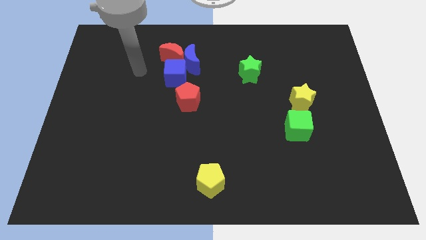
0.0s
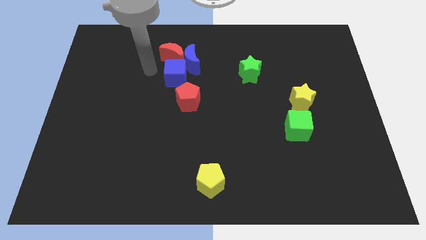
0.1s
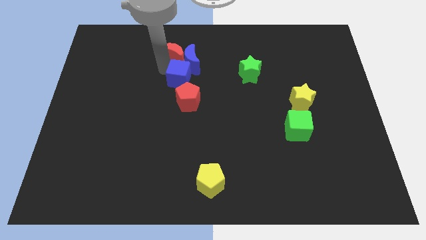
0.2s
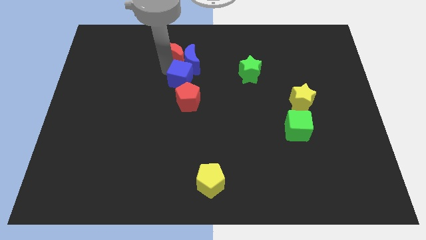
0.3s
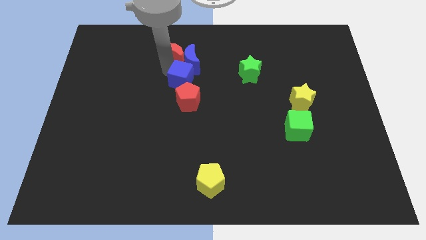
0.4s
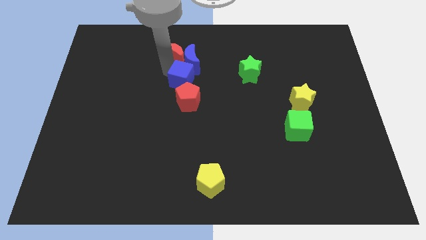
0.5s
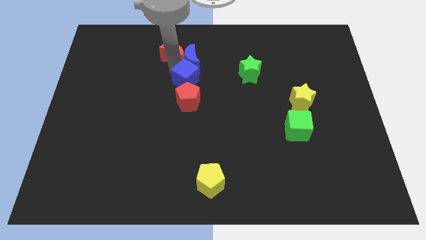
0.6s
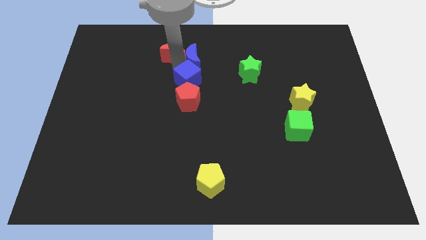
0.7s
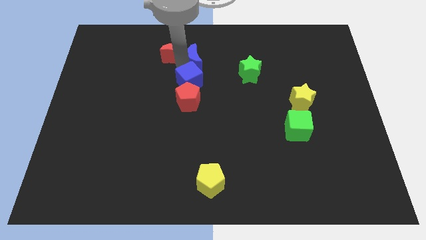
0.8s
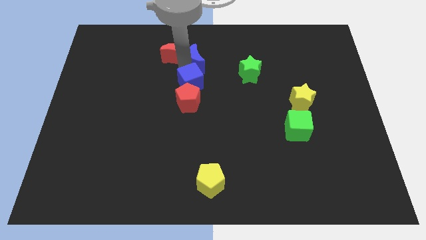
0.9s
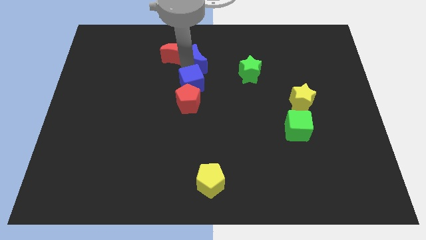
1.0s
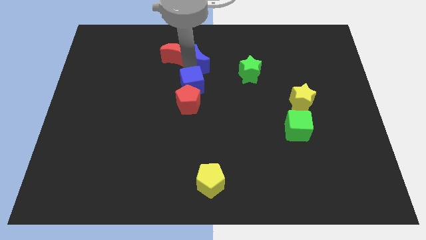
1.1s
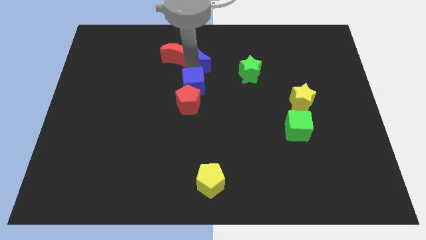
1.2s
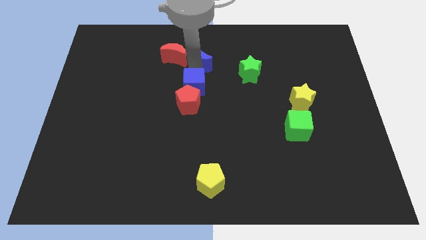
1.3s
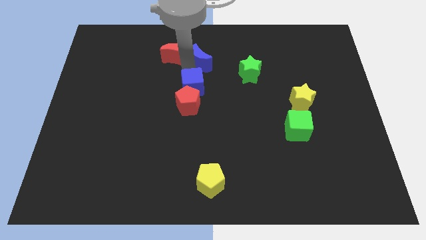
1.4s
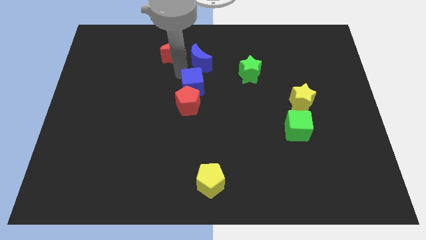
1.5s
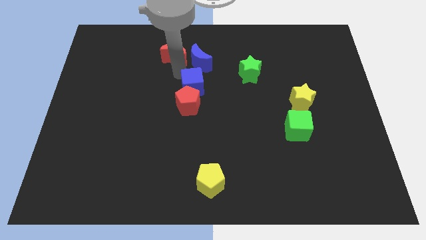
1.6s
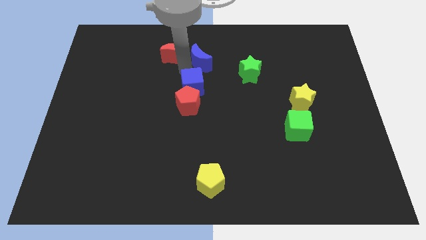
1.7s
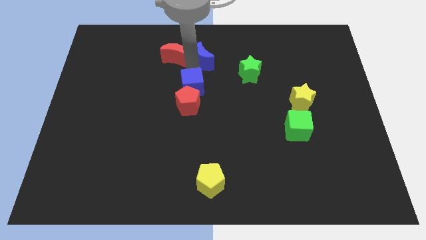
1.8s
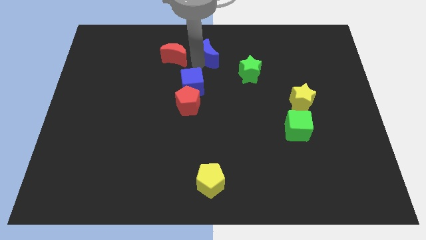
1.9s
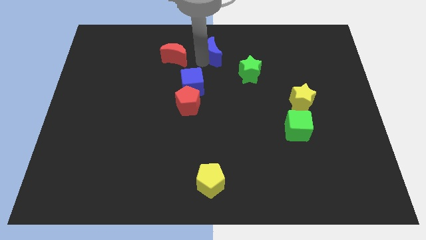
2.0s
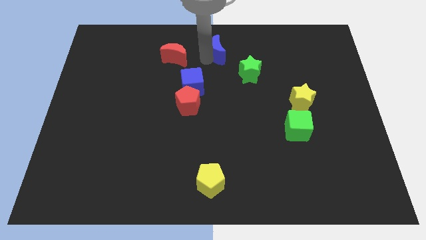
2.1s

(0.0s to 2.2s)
pull the blue moon apart from the red moon and blue cube

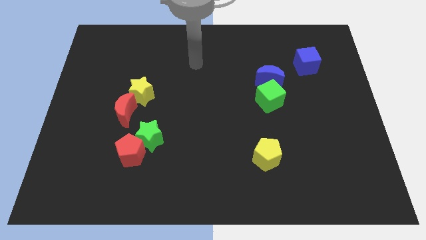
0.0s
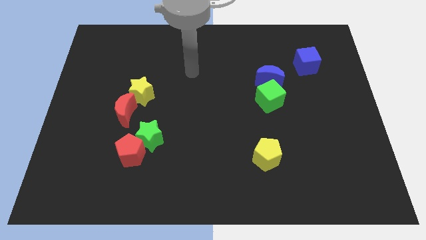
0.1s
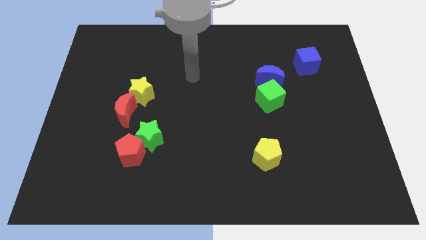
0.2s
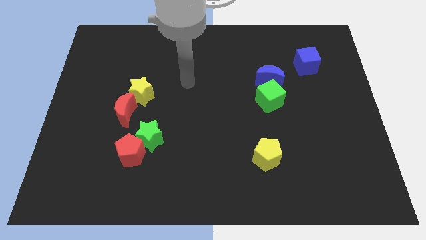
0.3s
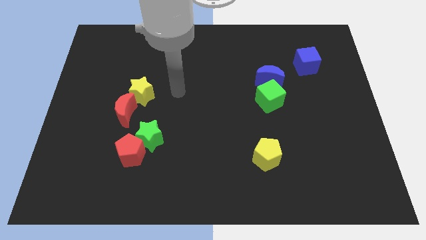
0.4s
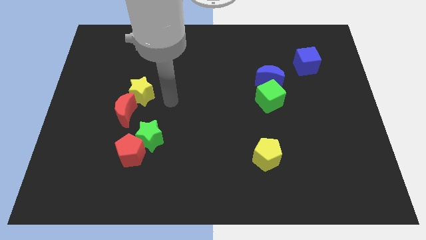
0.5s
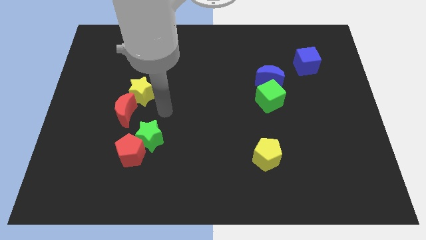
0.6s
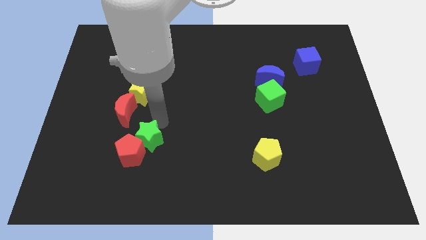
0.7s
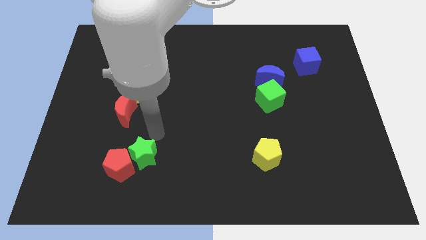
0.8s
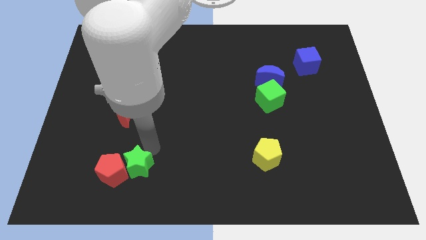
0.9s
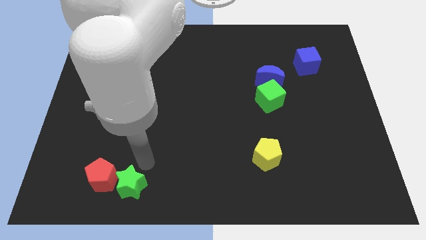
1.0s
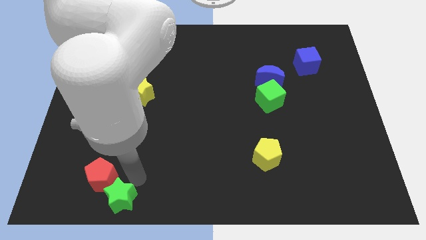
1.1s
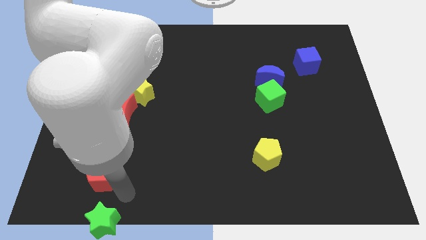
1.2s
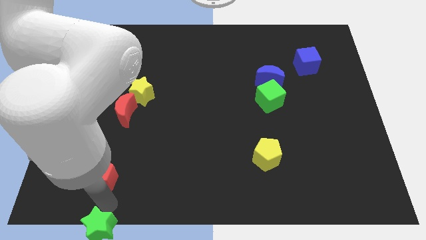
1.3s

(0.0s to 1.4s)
move the red pentagon away from the green star

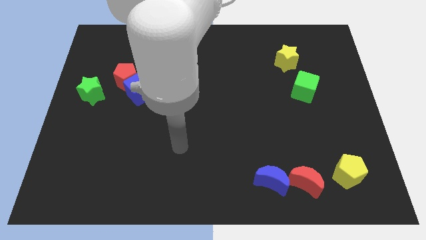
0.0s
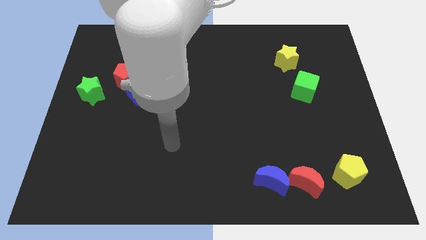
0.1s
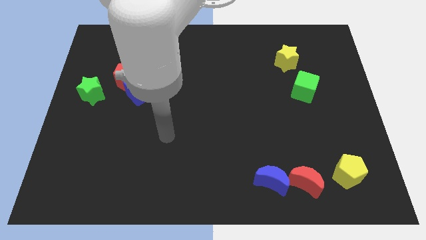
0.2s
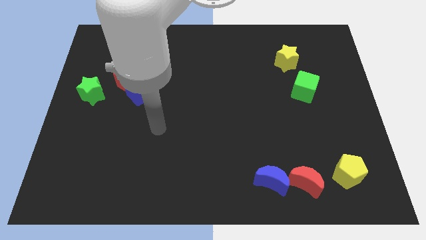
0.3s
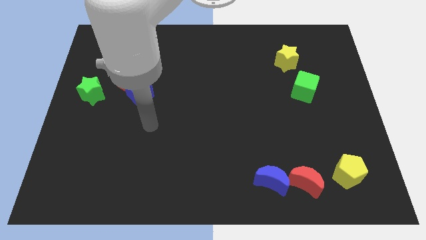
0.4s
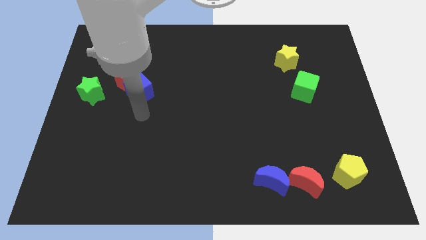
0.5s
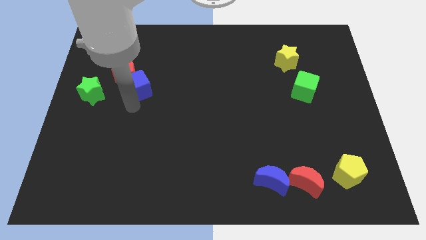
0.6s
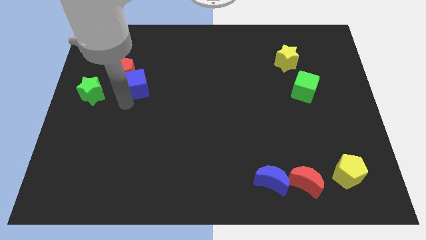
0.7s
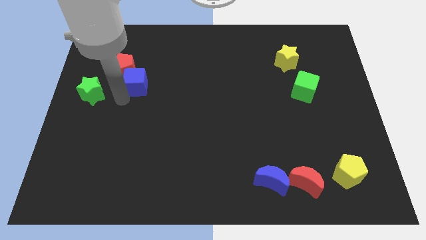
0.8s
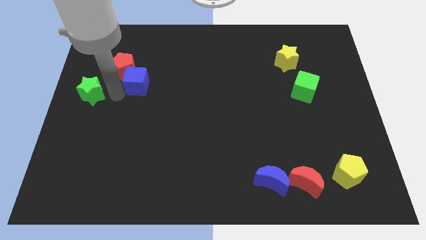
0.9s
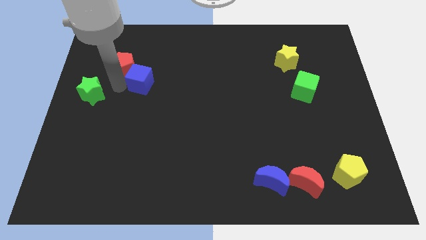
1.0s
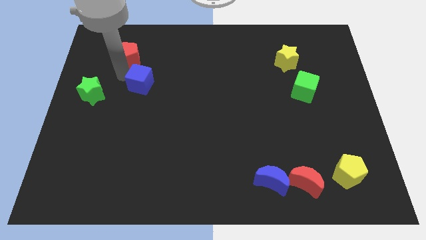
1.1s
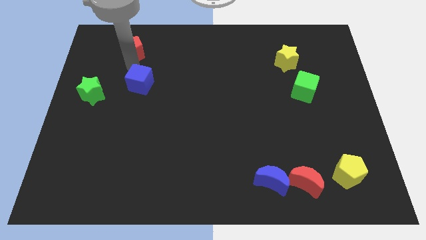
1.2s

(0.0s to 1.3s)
move the blue cube away from the red pentagon

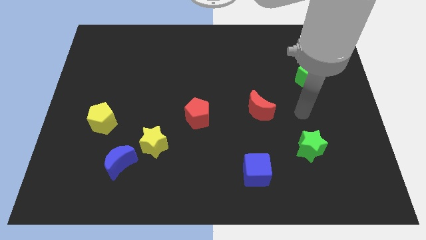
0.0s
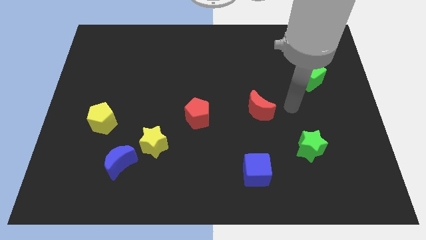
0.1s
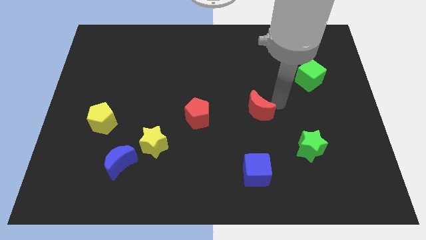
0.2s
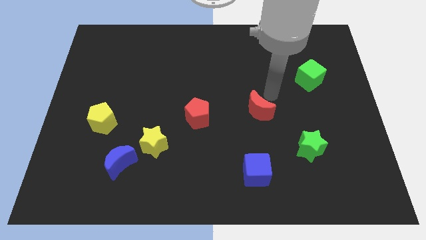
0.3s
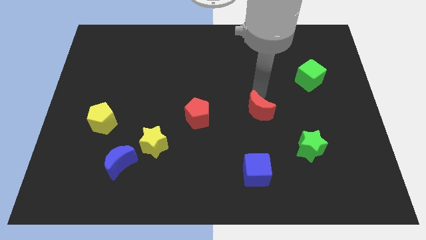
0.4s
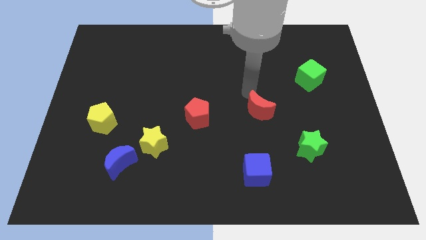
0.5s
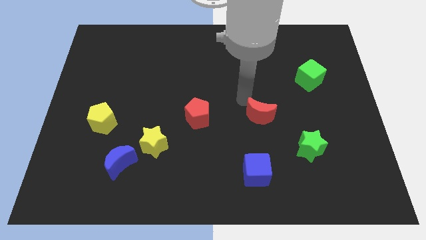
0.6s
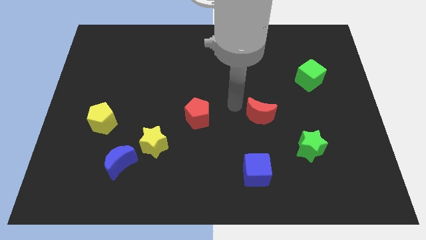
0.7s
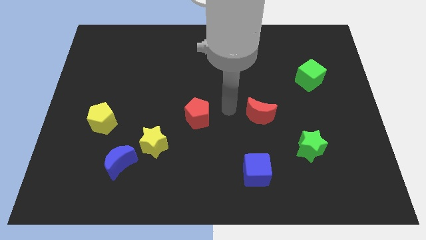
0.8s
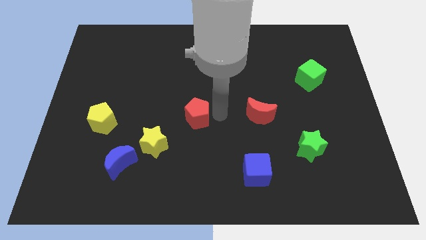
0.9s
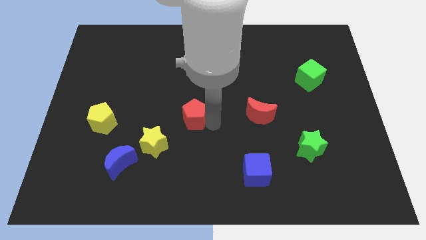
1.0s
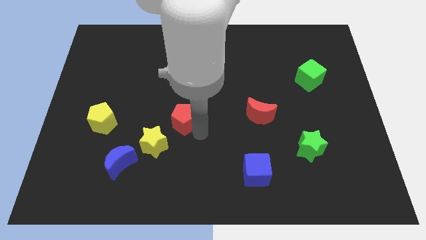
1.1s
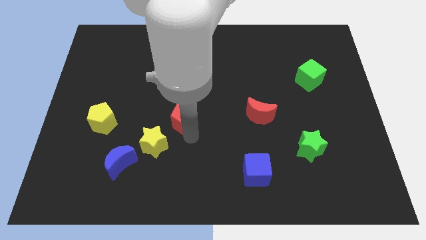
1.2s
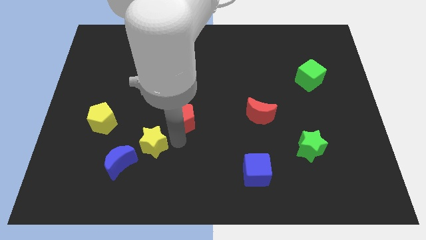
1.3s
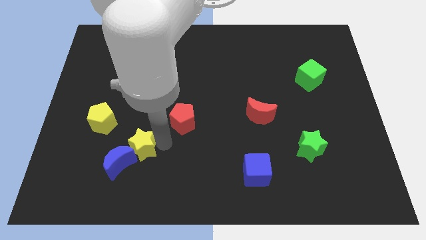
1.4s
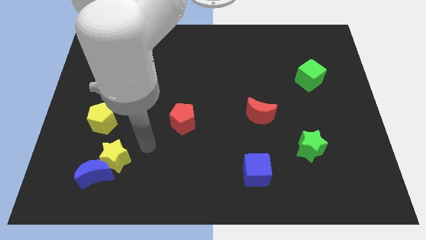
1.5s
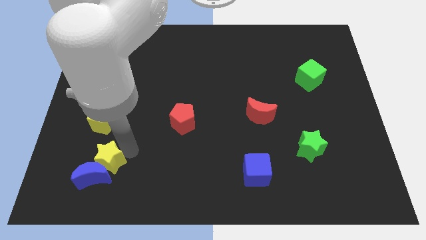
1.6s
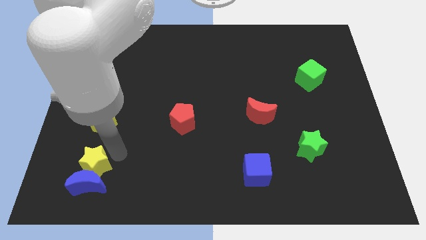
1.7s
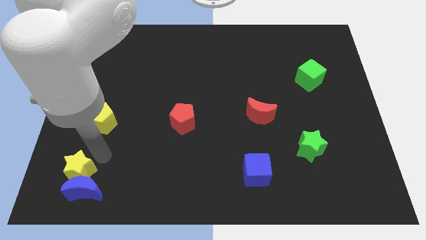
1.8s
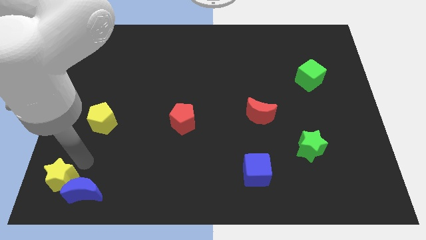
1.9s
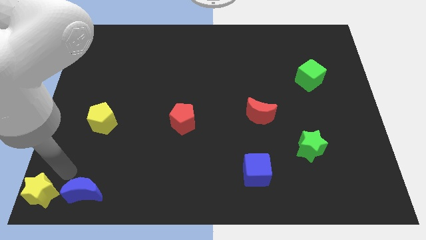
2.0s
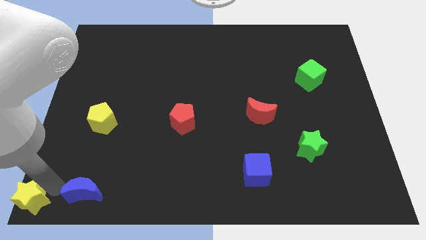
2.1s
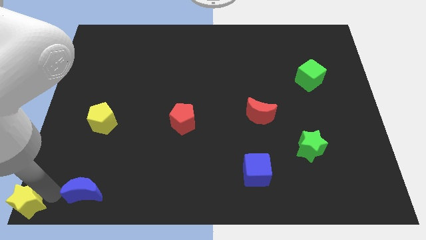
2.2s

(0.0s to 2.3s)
move the blue moon away from the yellow star

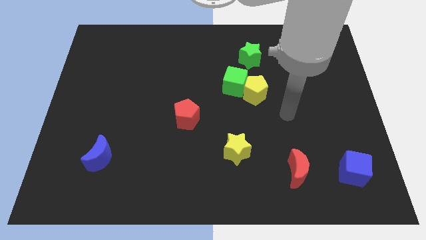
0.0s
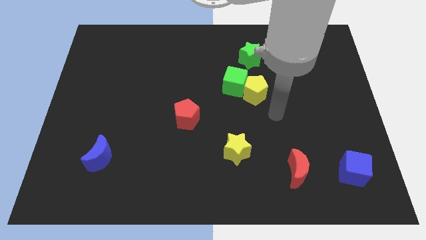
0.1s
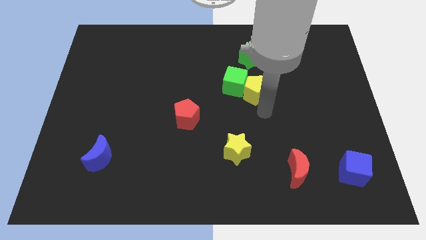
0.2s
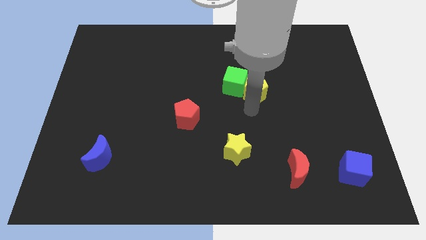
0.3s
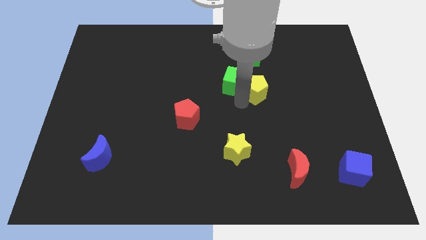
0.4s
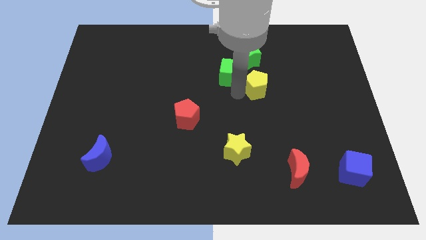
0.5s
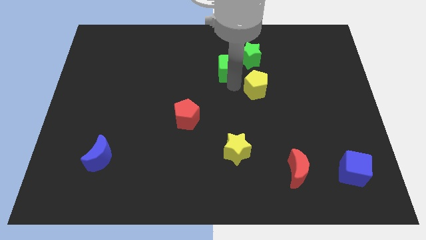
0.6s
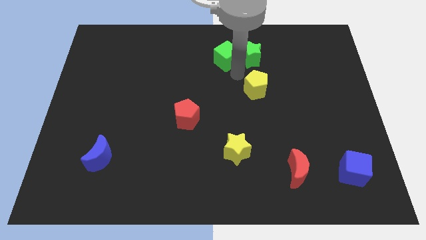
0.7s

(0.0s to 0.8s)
separate the yellow pentagon from the green cube

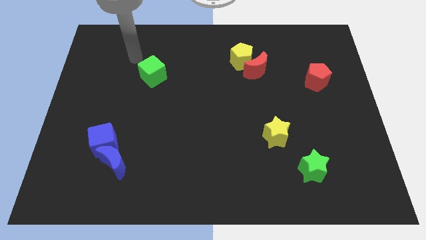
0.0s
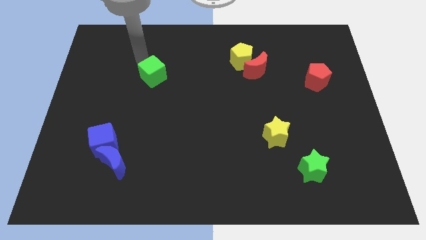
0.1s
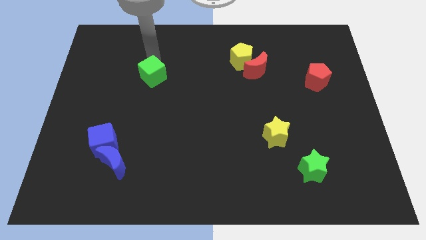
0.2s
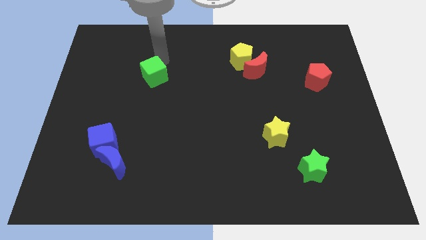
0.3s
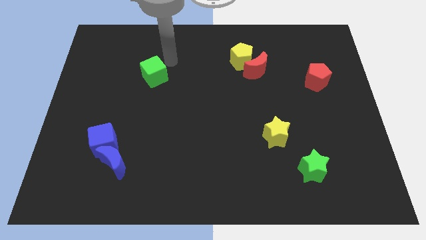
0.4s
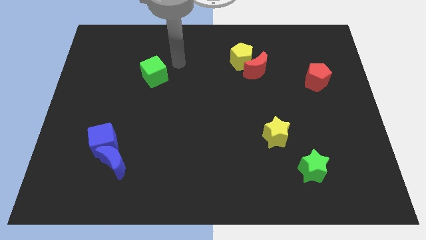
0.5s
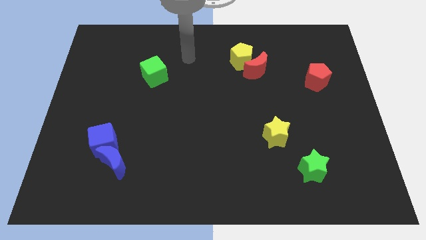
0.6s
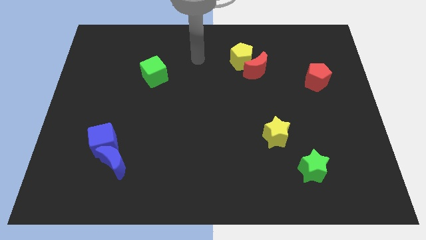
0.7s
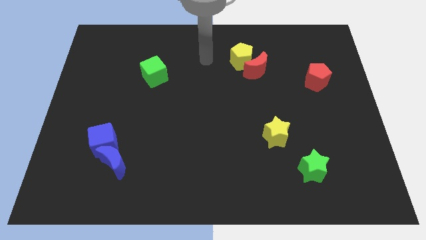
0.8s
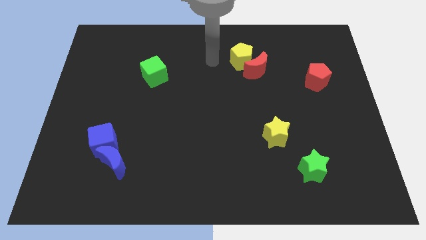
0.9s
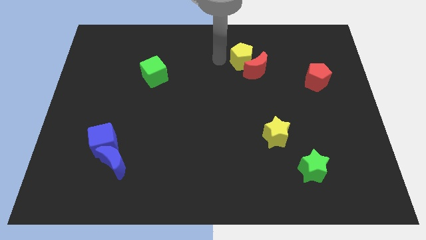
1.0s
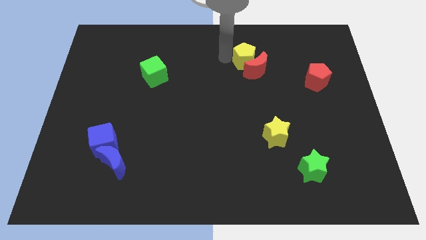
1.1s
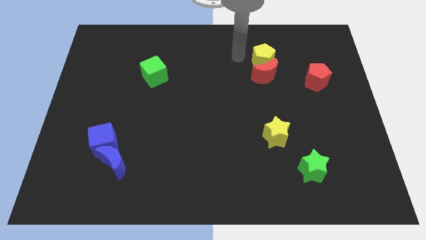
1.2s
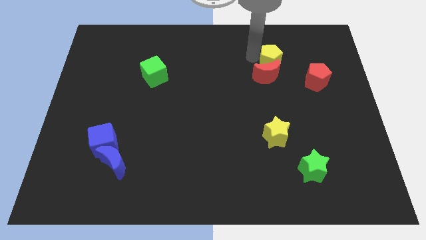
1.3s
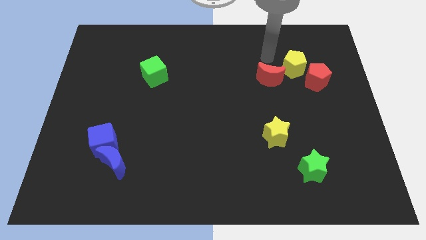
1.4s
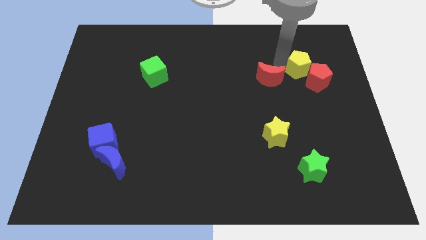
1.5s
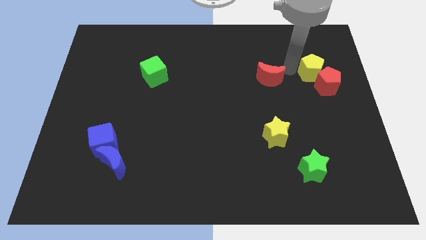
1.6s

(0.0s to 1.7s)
pull the red moon apart from the yellow pentagon
